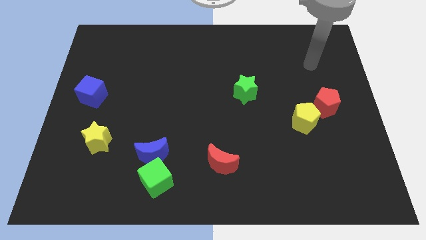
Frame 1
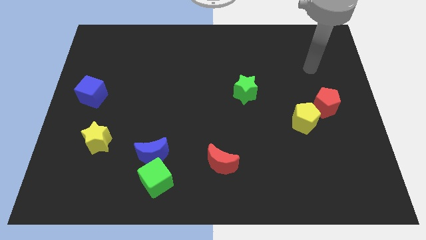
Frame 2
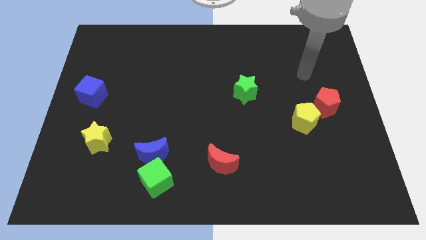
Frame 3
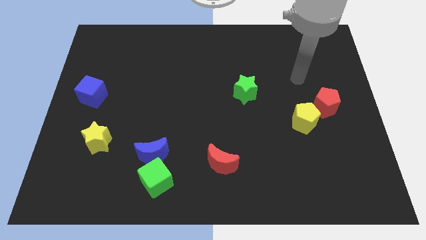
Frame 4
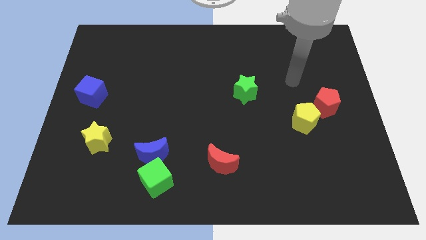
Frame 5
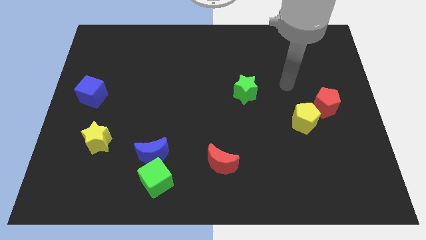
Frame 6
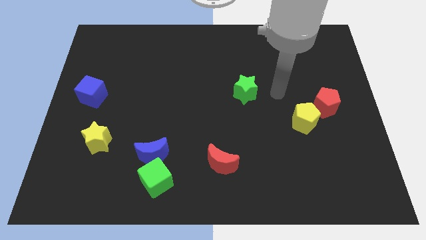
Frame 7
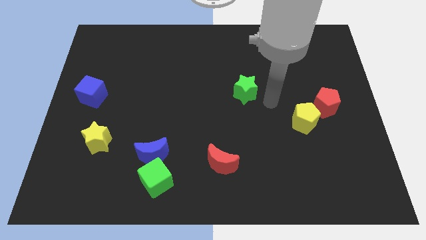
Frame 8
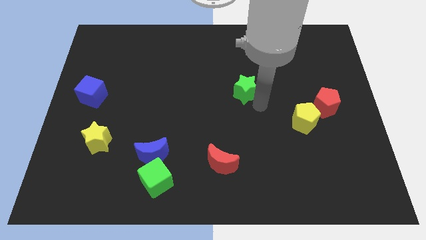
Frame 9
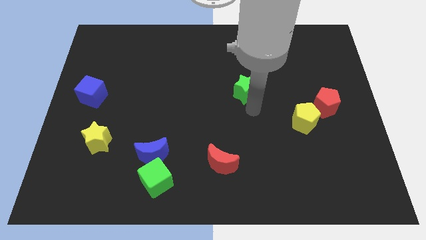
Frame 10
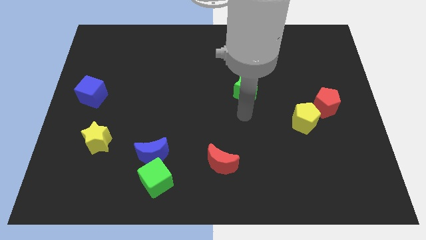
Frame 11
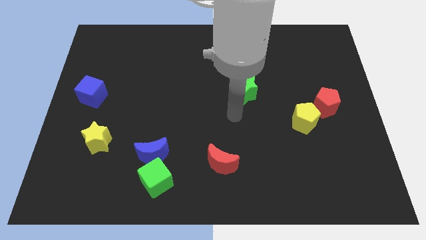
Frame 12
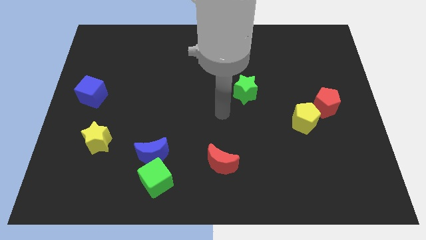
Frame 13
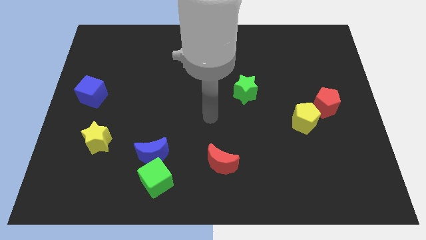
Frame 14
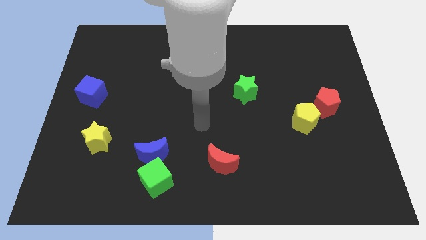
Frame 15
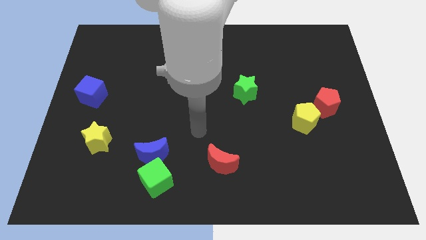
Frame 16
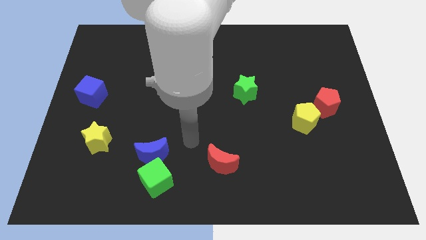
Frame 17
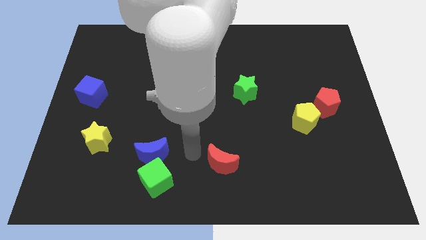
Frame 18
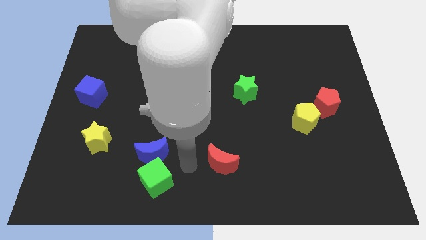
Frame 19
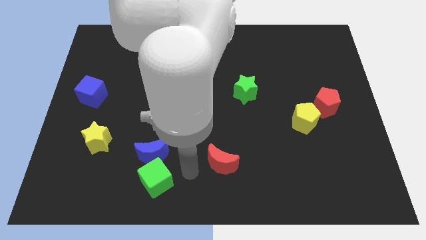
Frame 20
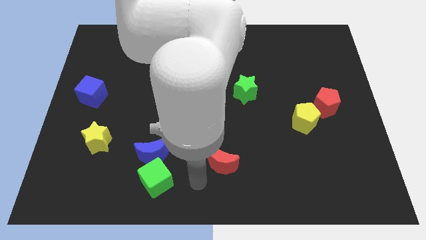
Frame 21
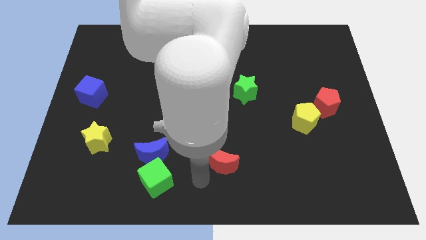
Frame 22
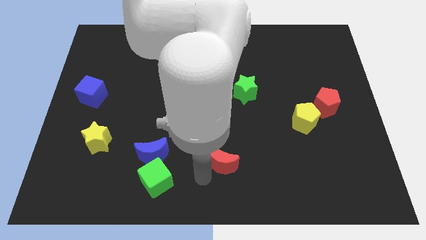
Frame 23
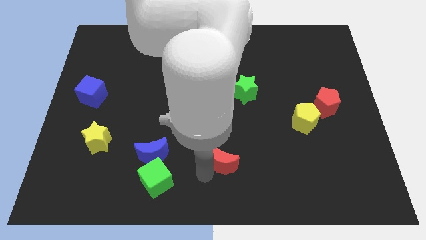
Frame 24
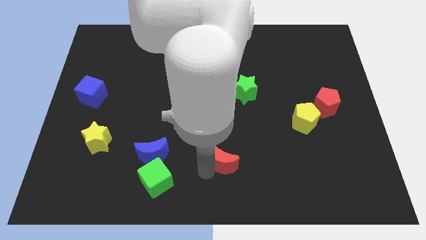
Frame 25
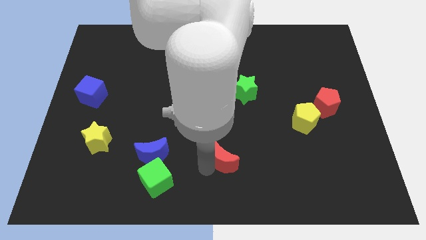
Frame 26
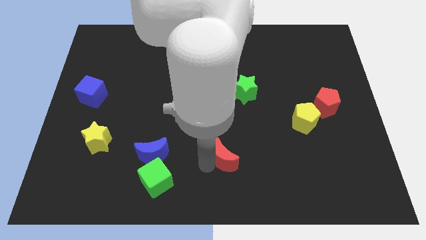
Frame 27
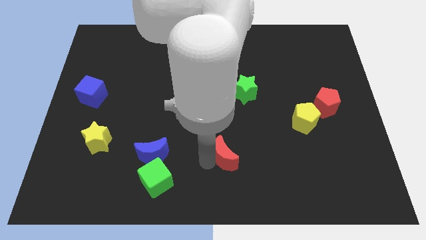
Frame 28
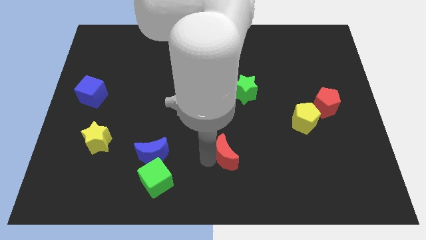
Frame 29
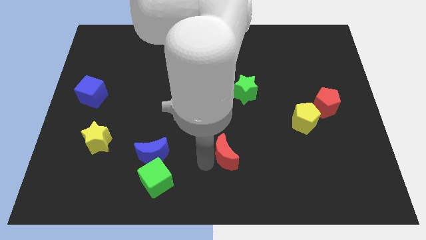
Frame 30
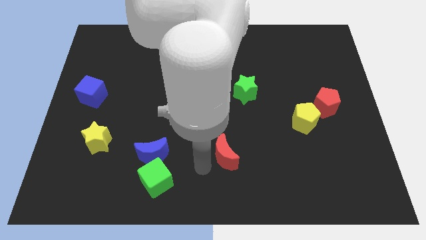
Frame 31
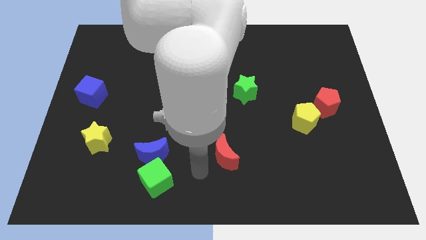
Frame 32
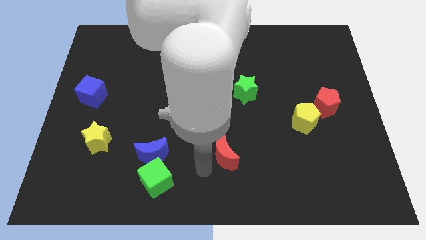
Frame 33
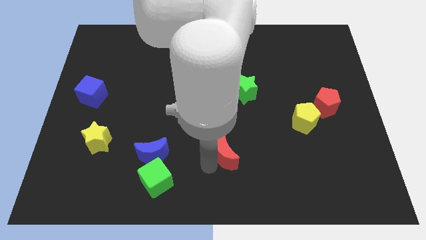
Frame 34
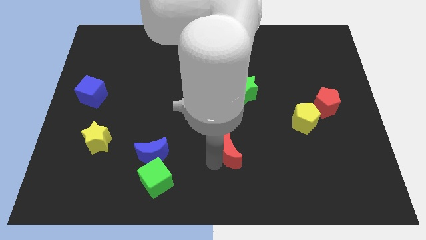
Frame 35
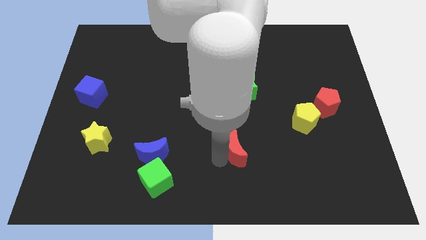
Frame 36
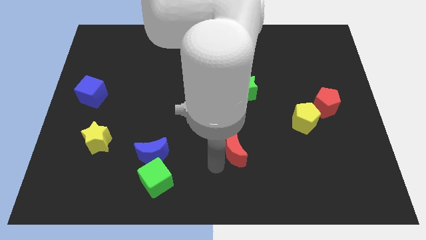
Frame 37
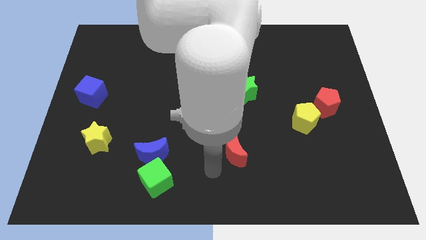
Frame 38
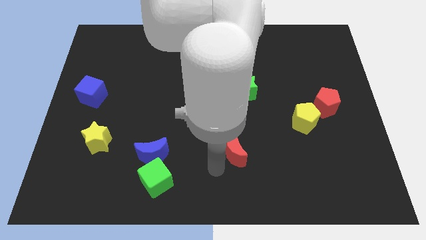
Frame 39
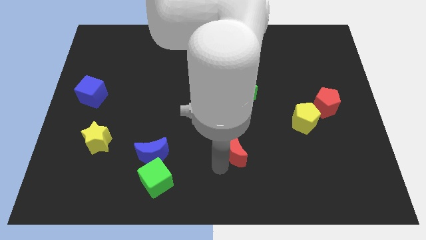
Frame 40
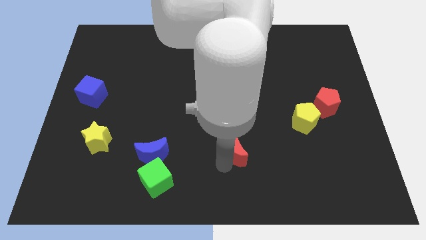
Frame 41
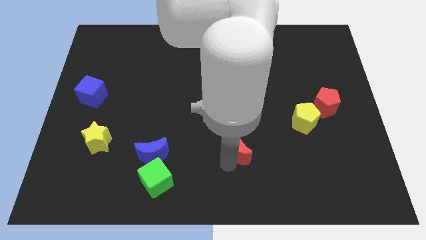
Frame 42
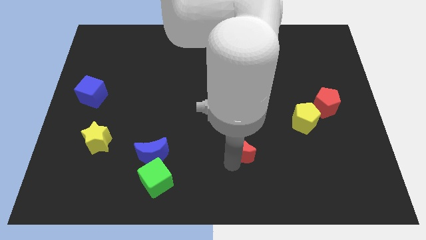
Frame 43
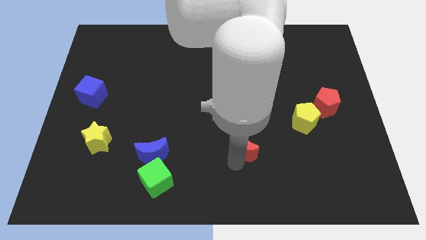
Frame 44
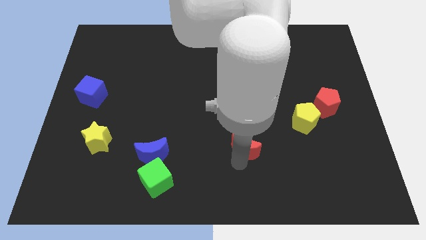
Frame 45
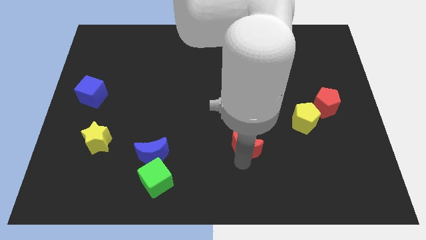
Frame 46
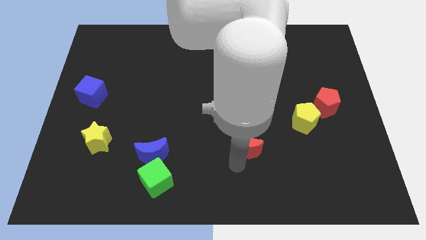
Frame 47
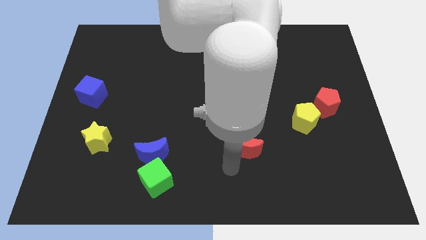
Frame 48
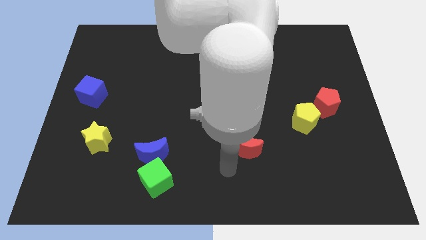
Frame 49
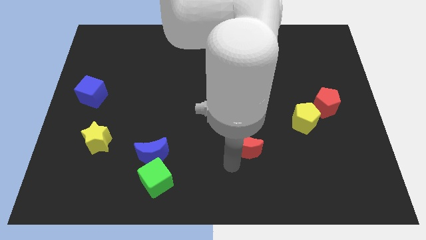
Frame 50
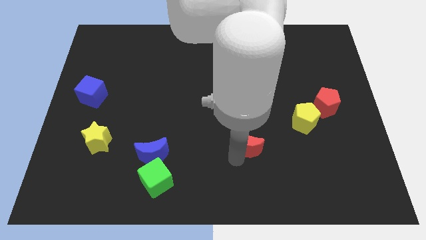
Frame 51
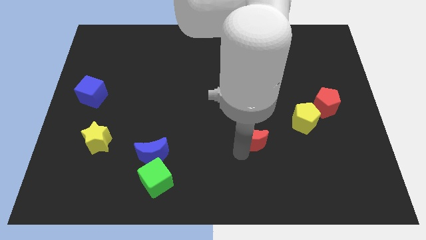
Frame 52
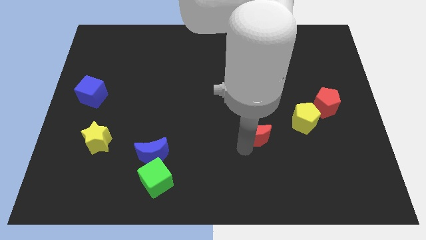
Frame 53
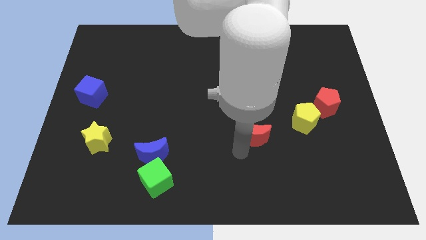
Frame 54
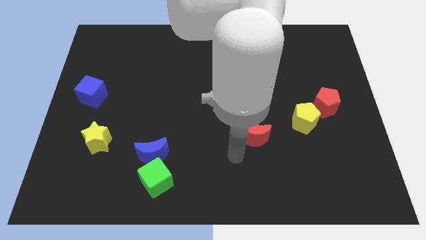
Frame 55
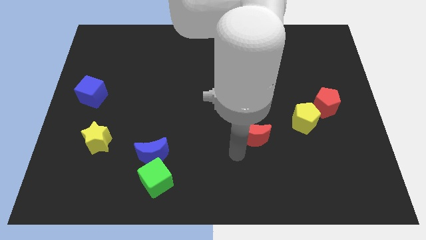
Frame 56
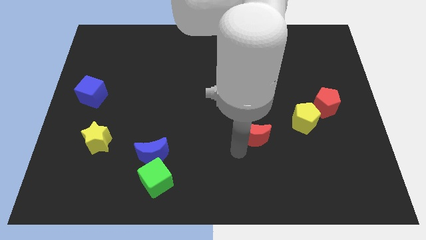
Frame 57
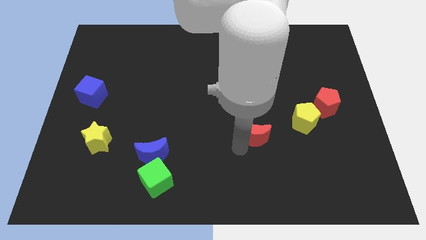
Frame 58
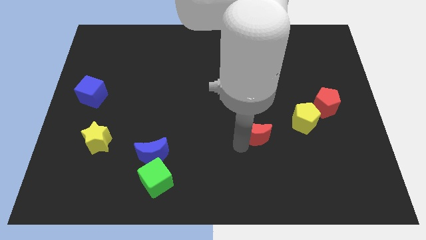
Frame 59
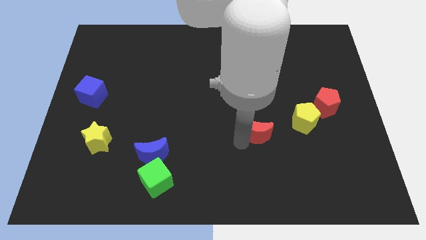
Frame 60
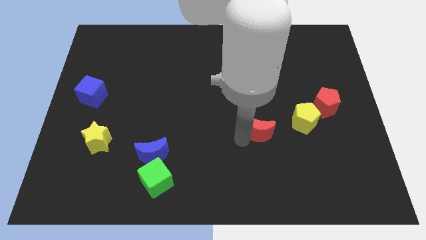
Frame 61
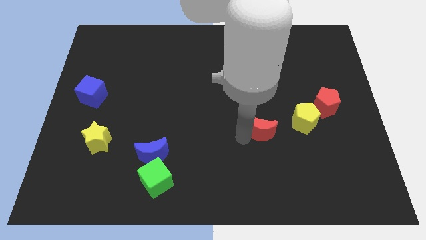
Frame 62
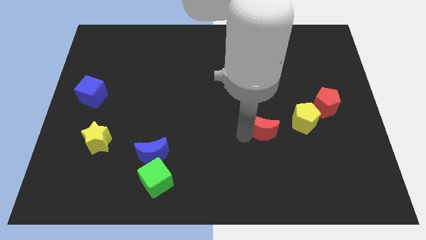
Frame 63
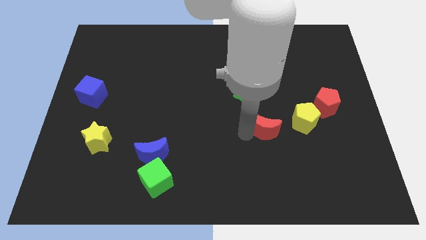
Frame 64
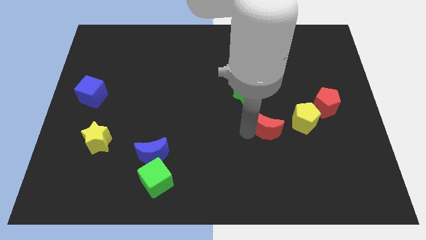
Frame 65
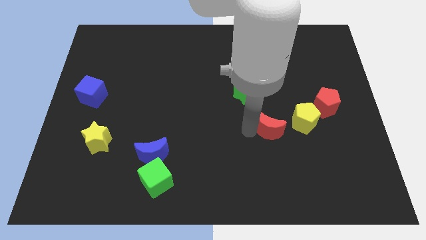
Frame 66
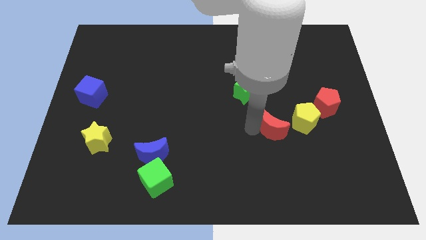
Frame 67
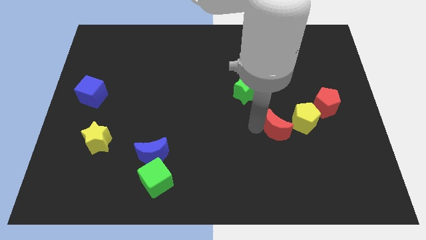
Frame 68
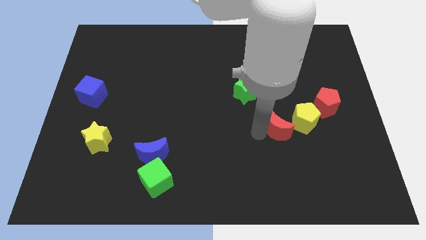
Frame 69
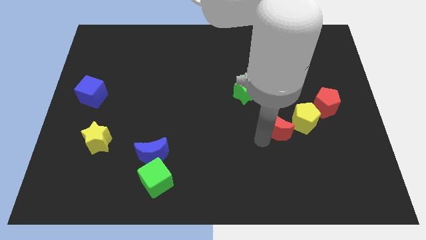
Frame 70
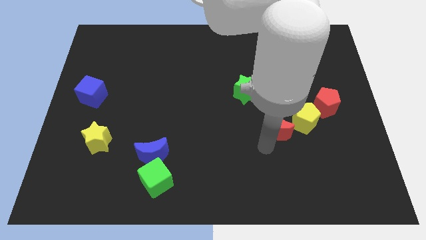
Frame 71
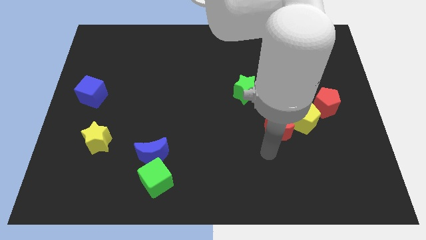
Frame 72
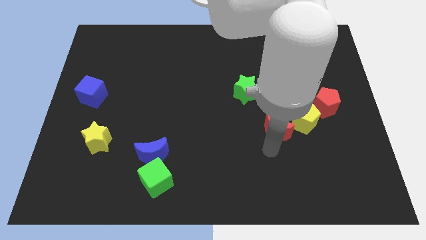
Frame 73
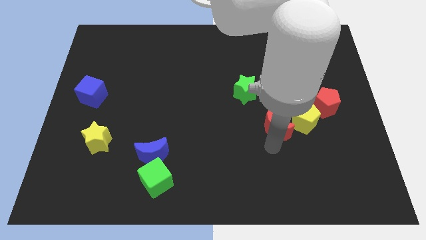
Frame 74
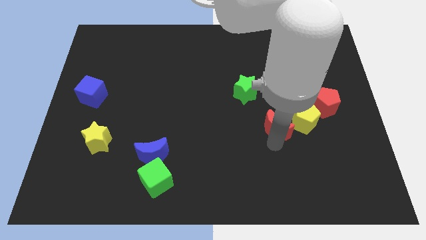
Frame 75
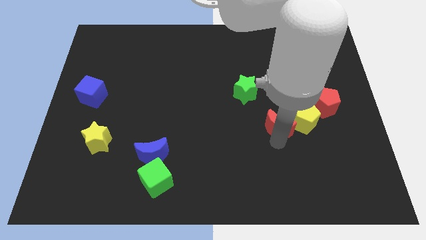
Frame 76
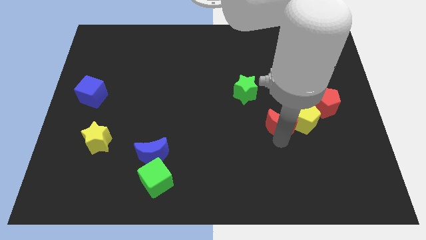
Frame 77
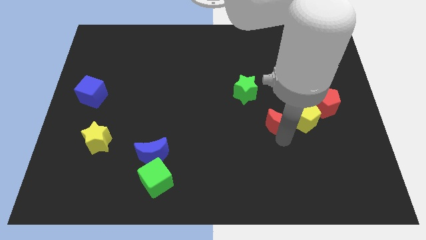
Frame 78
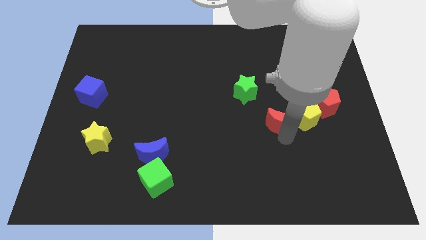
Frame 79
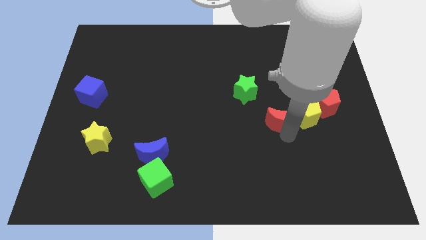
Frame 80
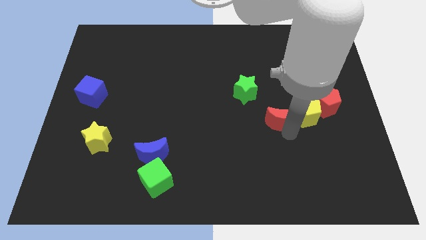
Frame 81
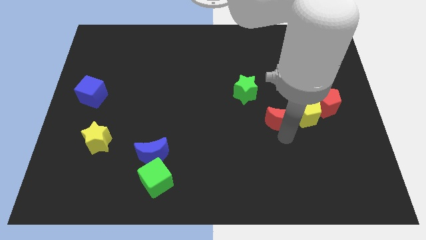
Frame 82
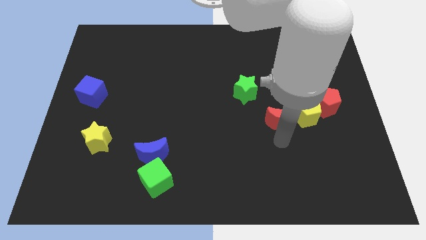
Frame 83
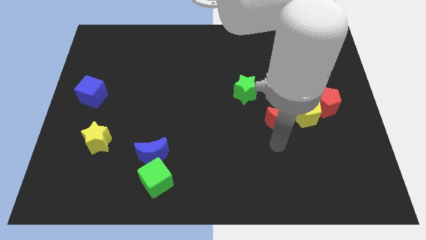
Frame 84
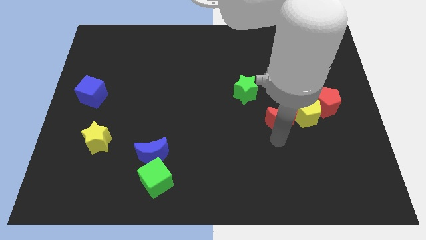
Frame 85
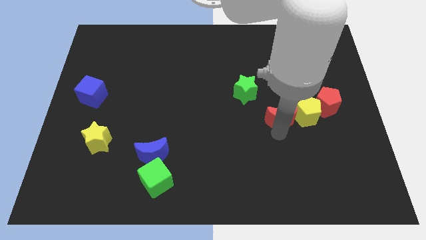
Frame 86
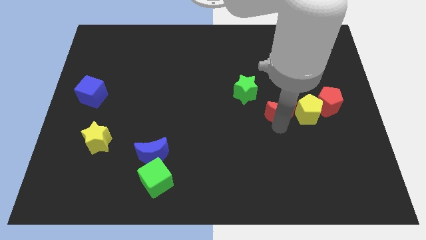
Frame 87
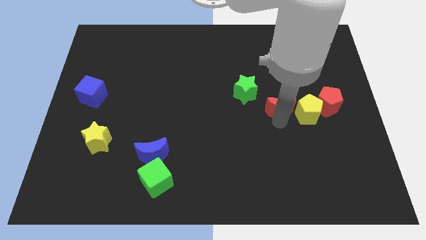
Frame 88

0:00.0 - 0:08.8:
move the red moon upwards and then right
